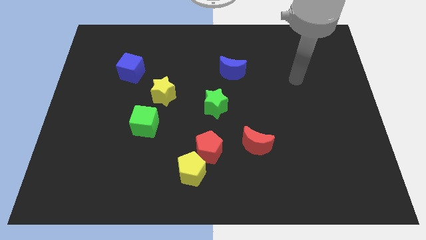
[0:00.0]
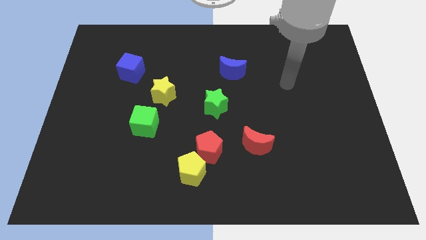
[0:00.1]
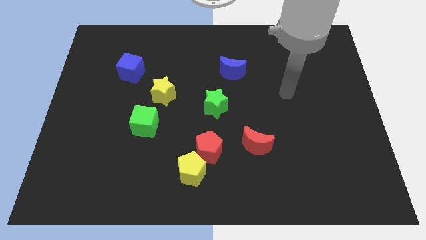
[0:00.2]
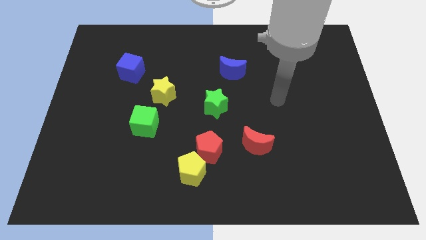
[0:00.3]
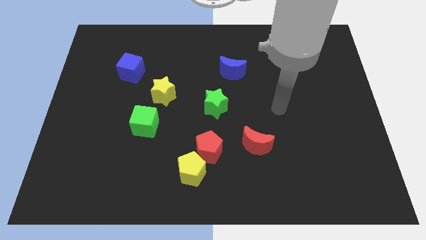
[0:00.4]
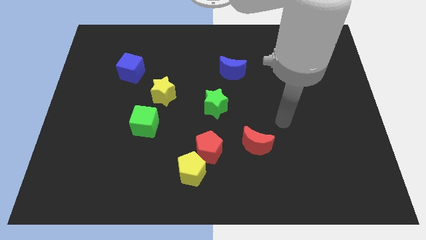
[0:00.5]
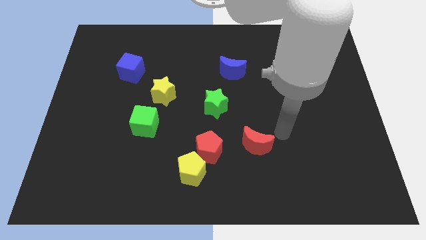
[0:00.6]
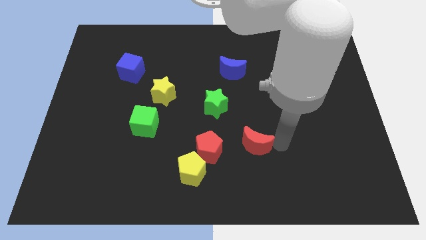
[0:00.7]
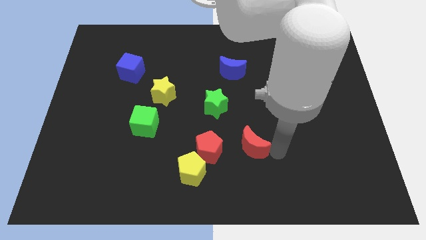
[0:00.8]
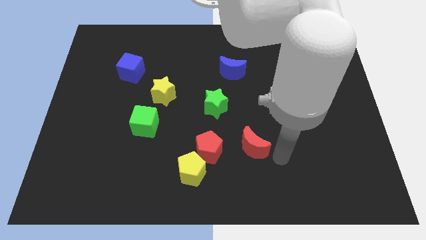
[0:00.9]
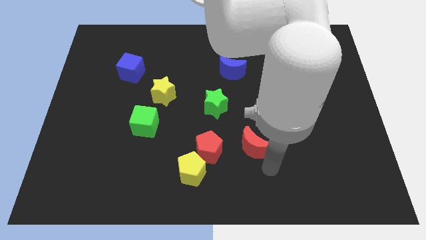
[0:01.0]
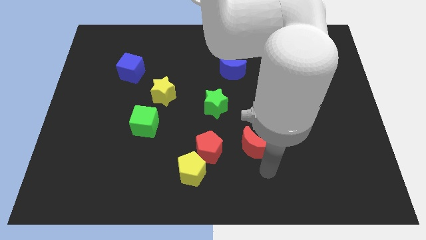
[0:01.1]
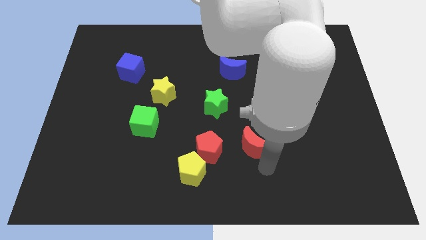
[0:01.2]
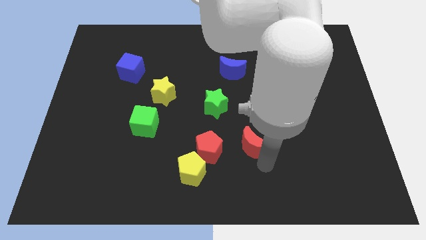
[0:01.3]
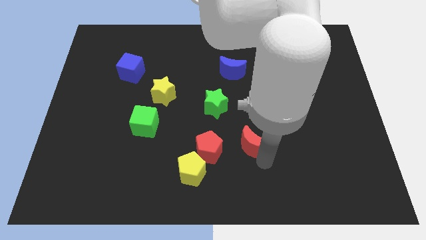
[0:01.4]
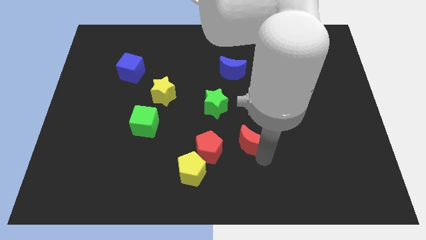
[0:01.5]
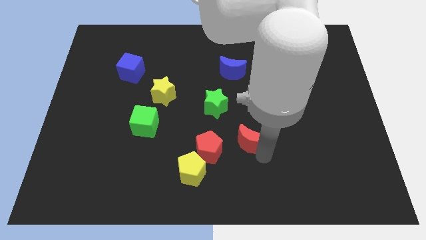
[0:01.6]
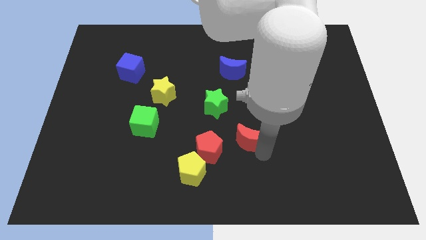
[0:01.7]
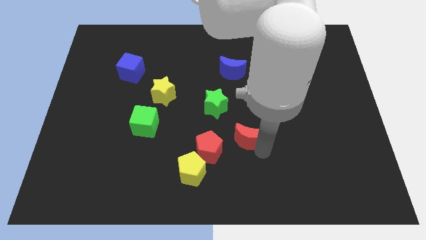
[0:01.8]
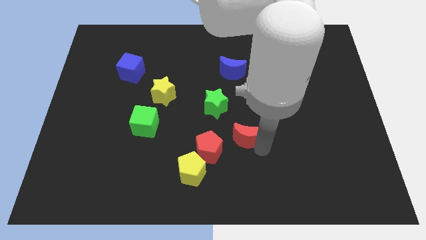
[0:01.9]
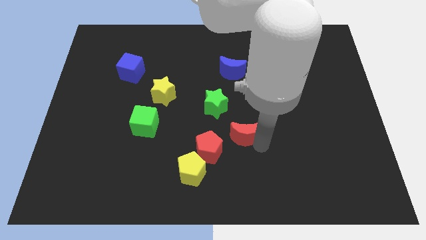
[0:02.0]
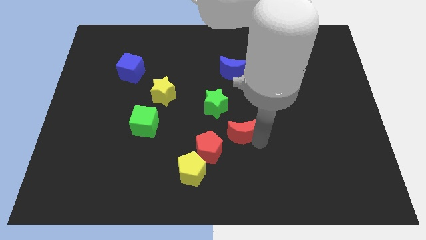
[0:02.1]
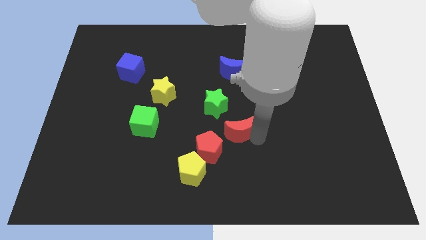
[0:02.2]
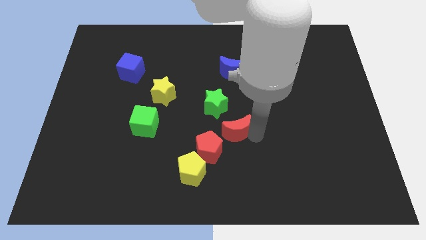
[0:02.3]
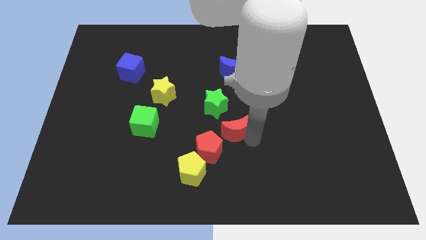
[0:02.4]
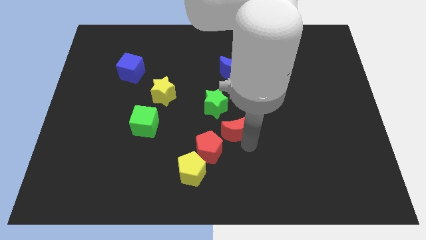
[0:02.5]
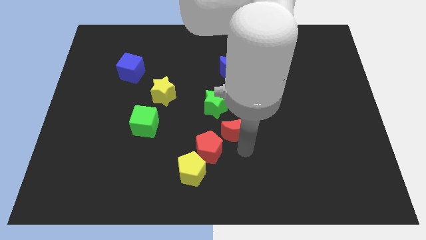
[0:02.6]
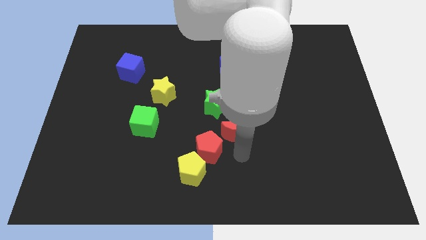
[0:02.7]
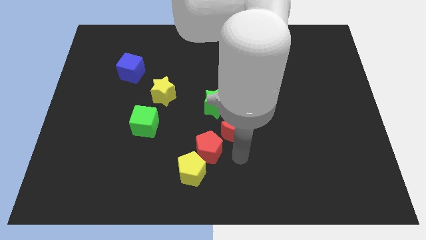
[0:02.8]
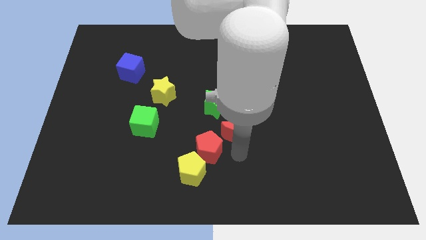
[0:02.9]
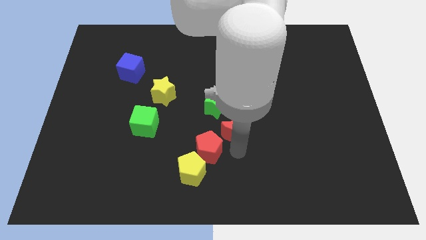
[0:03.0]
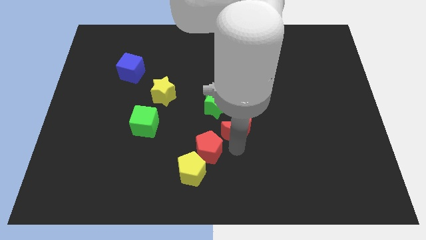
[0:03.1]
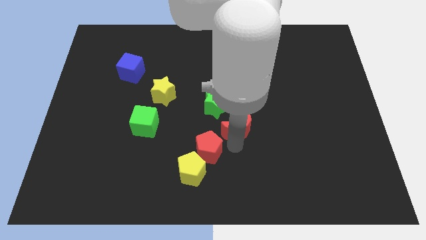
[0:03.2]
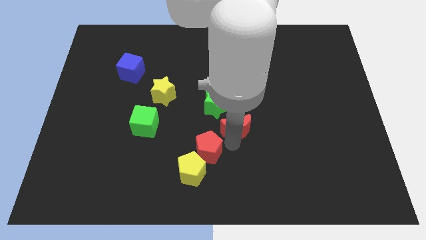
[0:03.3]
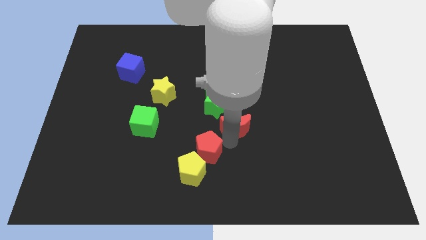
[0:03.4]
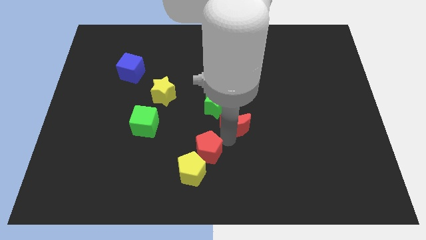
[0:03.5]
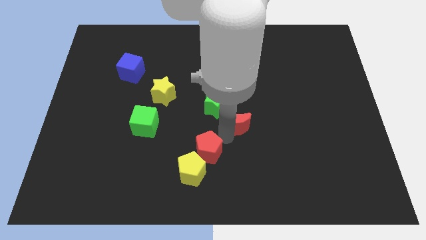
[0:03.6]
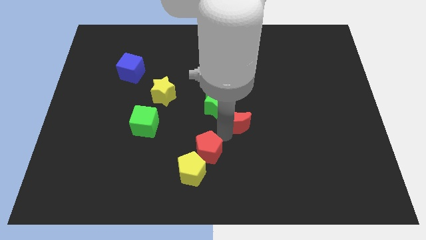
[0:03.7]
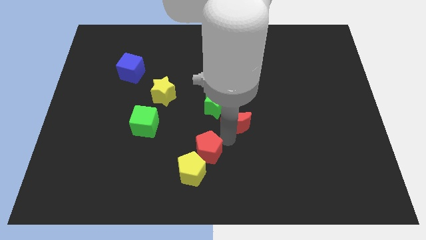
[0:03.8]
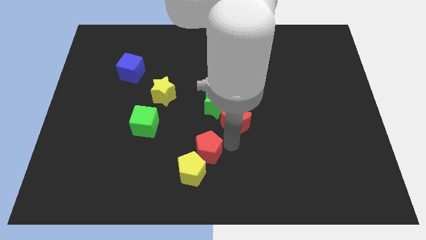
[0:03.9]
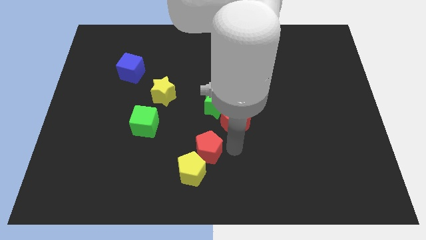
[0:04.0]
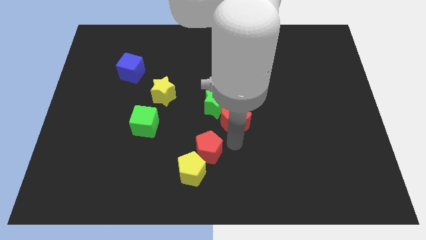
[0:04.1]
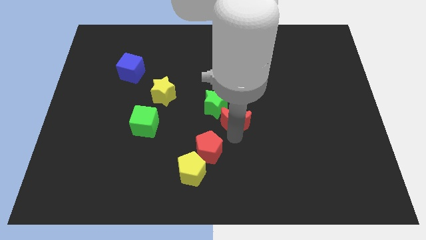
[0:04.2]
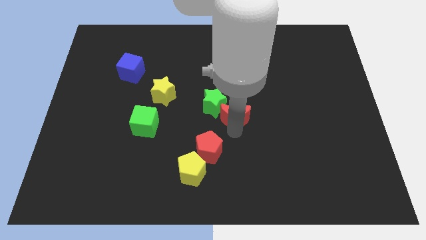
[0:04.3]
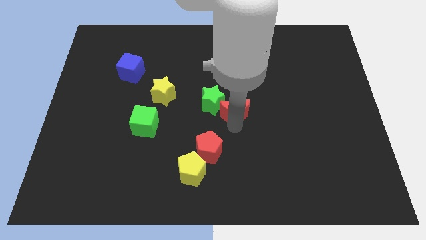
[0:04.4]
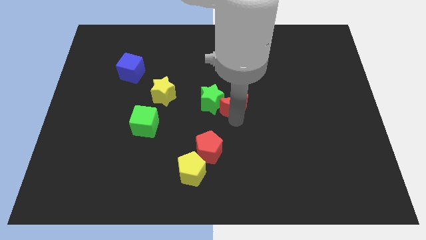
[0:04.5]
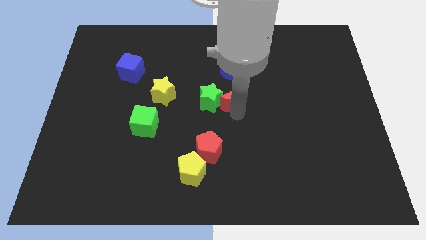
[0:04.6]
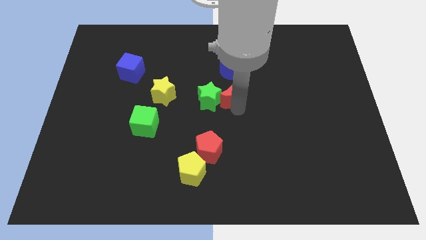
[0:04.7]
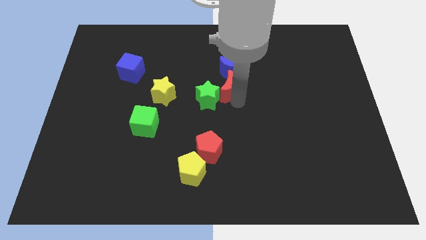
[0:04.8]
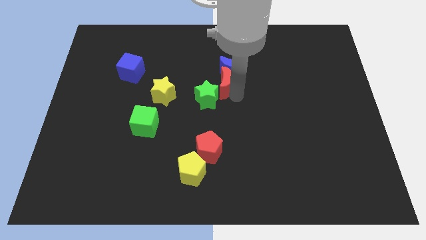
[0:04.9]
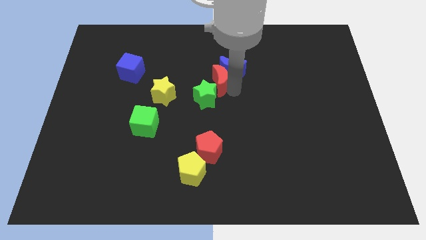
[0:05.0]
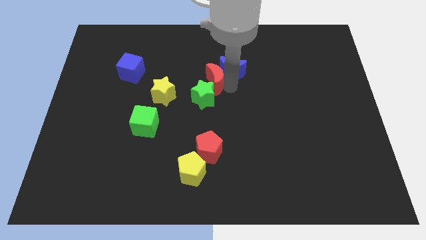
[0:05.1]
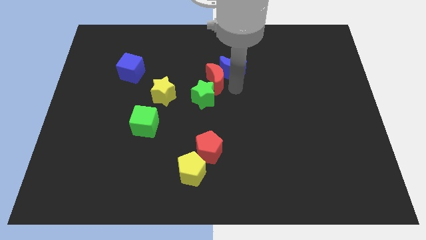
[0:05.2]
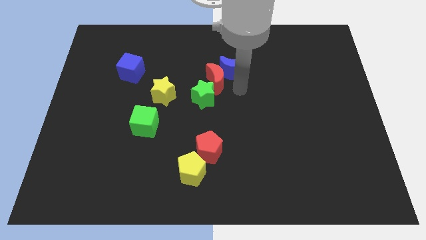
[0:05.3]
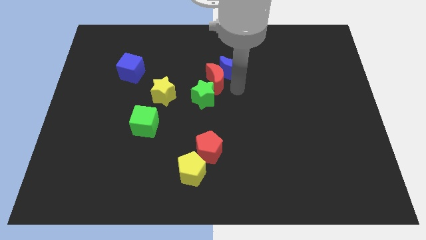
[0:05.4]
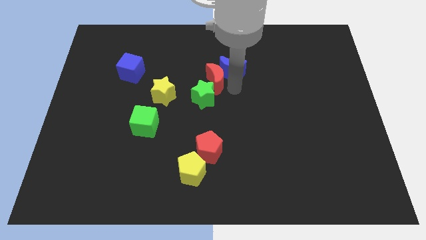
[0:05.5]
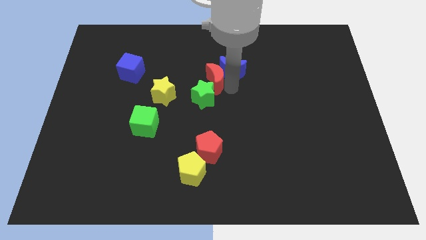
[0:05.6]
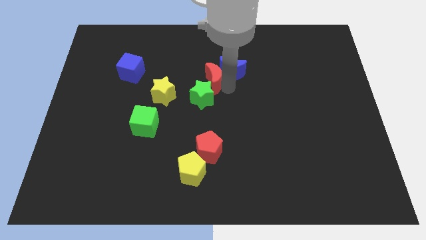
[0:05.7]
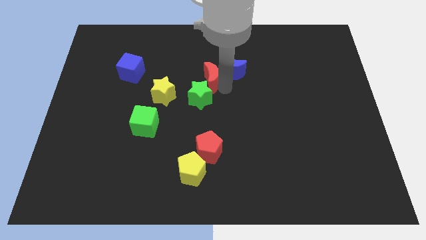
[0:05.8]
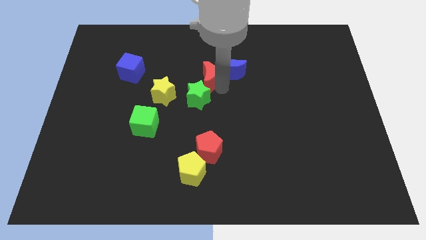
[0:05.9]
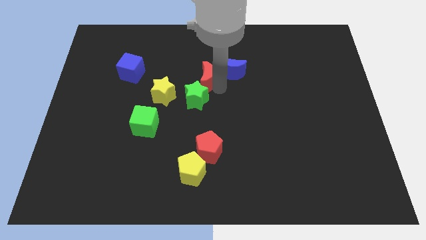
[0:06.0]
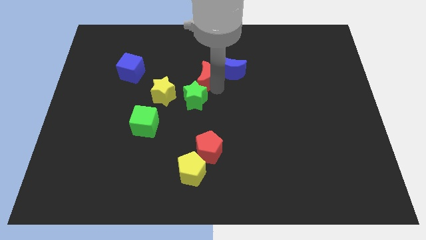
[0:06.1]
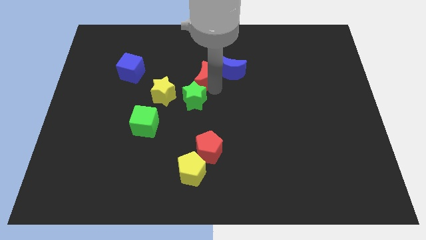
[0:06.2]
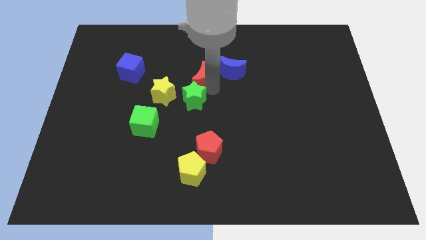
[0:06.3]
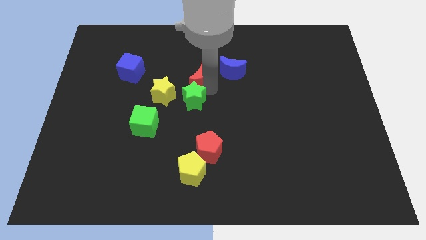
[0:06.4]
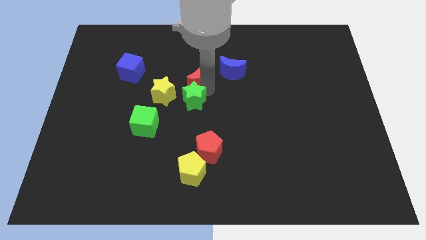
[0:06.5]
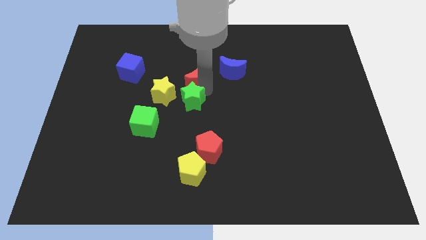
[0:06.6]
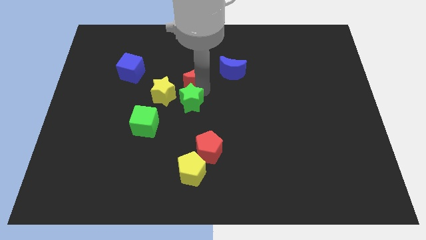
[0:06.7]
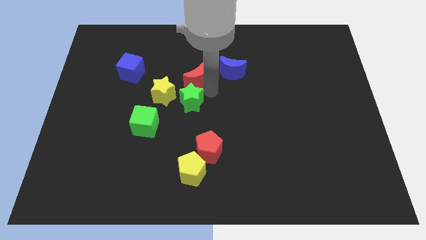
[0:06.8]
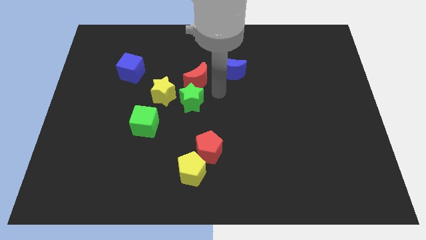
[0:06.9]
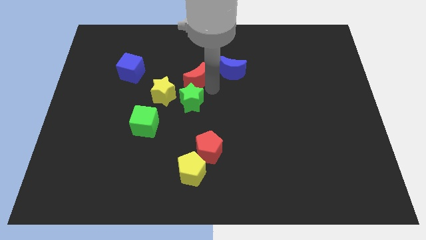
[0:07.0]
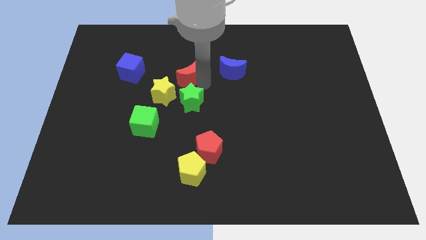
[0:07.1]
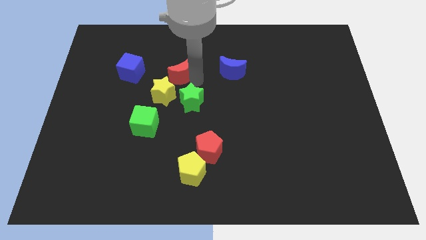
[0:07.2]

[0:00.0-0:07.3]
move the red moon above the yellow star
